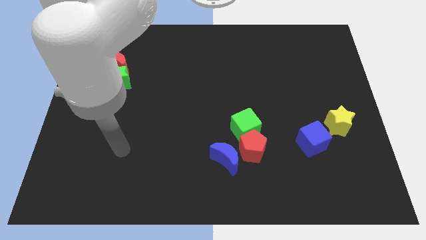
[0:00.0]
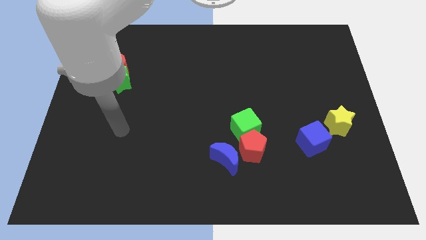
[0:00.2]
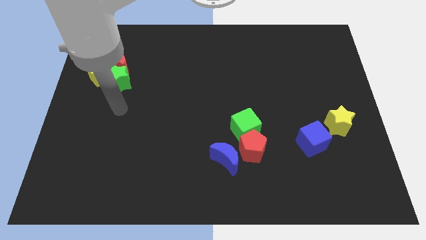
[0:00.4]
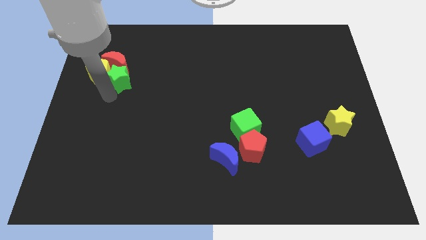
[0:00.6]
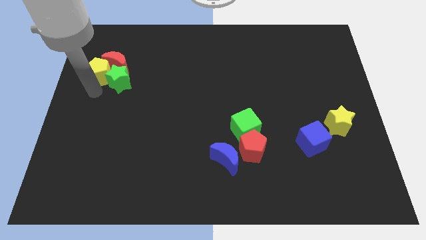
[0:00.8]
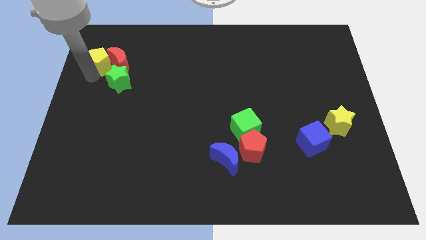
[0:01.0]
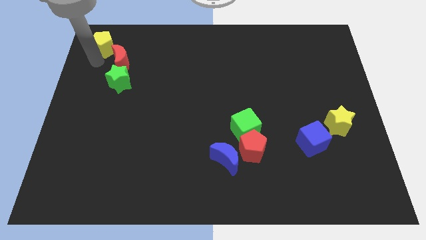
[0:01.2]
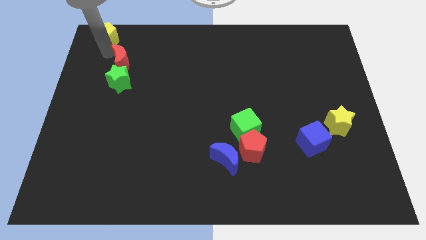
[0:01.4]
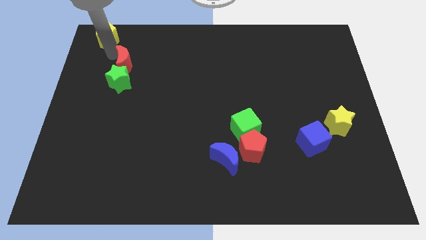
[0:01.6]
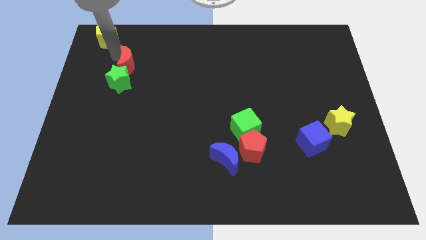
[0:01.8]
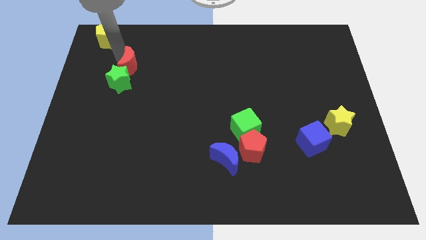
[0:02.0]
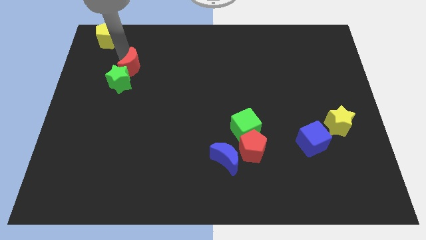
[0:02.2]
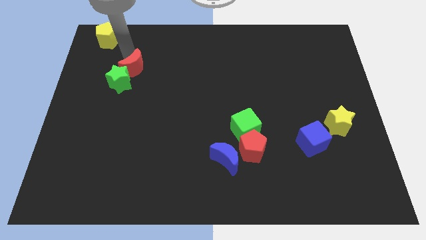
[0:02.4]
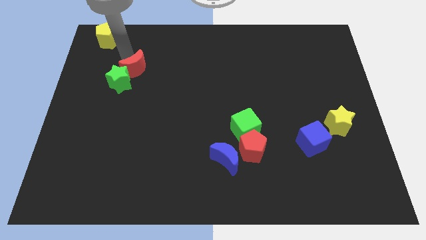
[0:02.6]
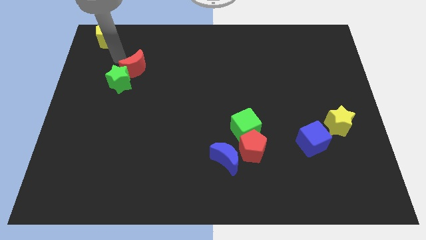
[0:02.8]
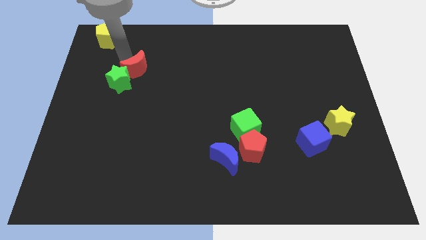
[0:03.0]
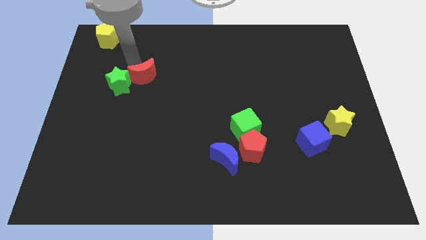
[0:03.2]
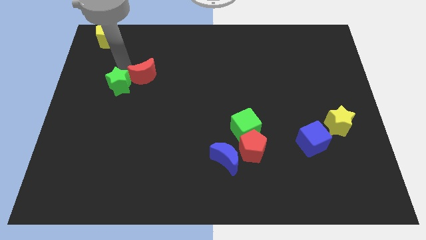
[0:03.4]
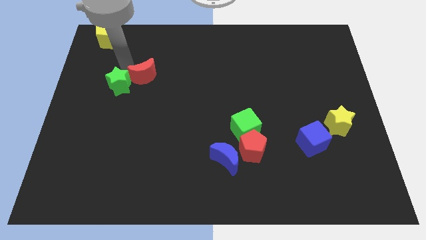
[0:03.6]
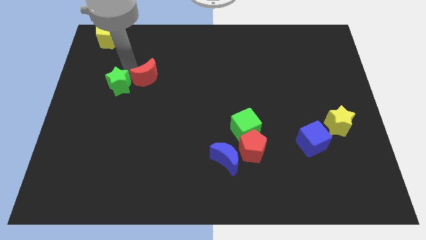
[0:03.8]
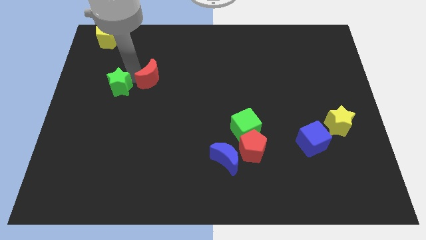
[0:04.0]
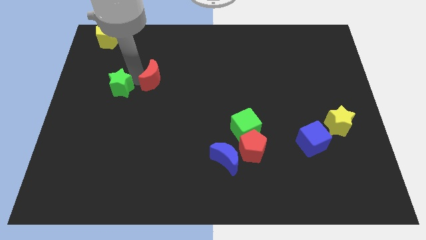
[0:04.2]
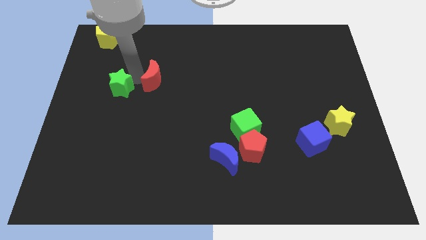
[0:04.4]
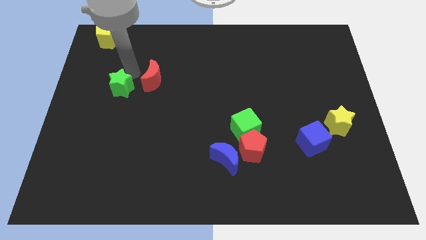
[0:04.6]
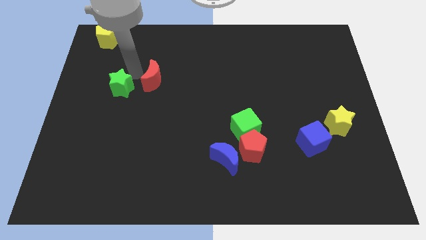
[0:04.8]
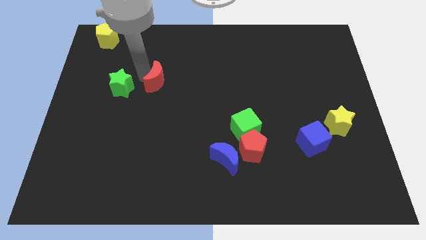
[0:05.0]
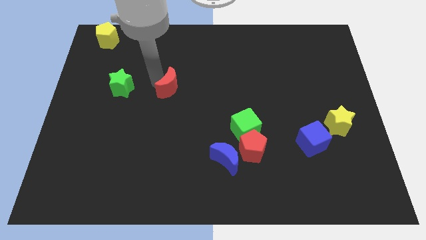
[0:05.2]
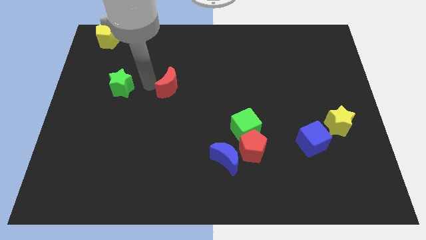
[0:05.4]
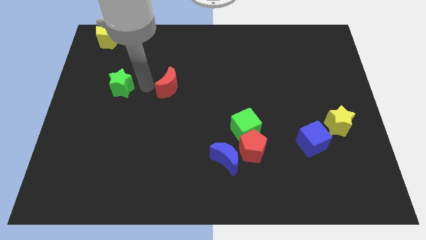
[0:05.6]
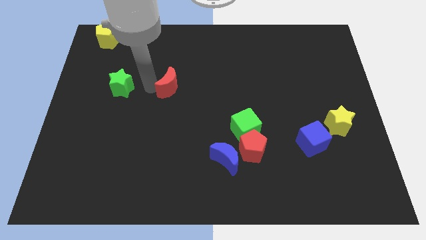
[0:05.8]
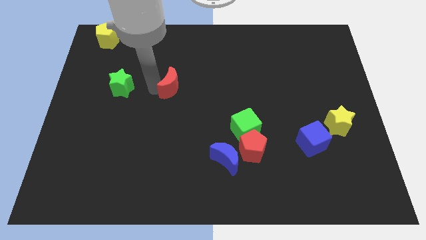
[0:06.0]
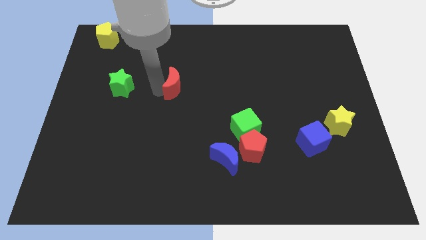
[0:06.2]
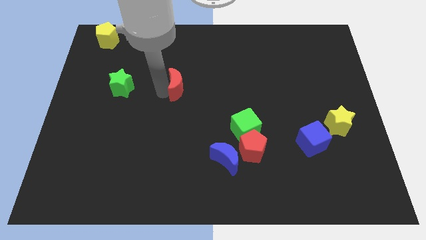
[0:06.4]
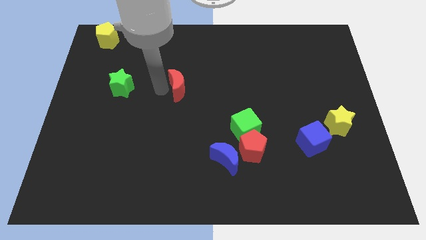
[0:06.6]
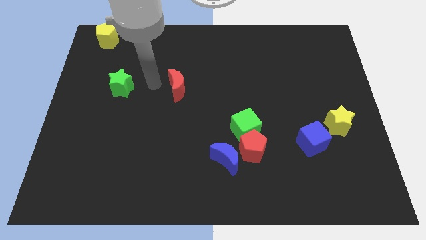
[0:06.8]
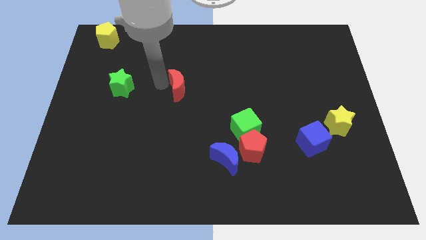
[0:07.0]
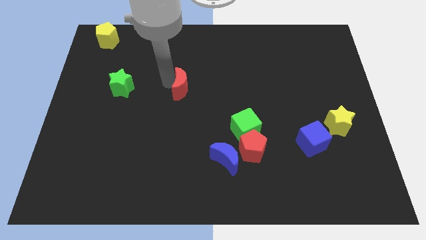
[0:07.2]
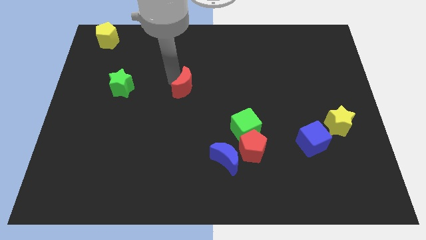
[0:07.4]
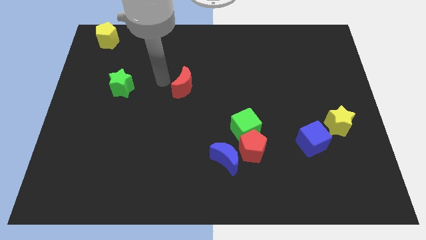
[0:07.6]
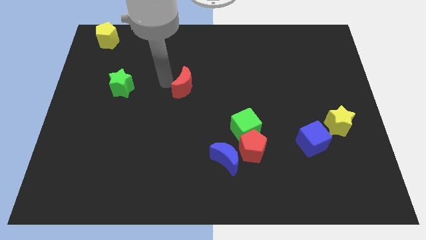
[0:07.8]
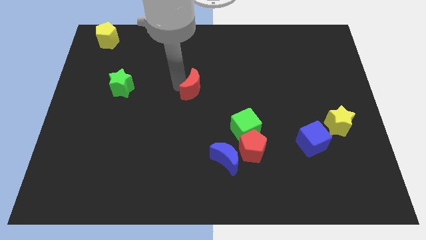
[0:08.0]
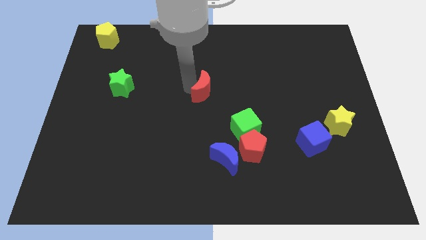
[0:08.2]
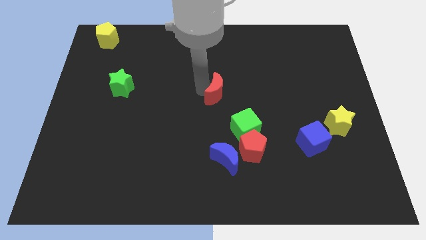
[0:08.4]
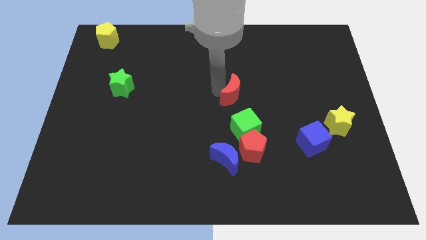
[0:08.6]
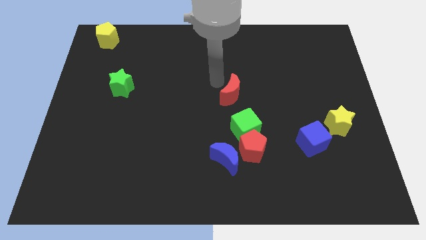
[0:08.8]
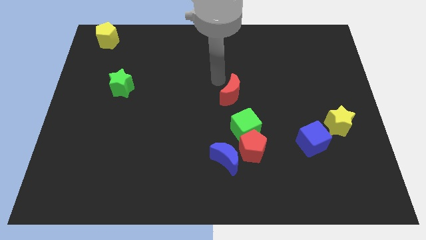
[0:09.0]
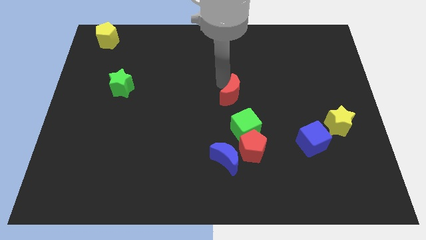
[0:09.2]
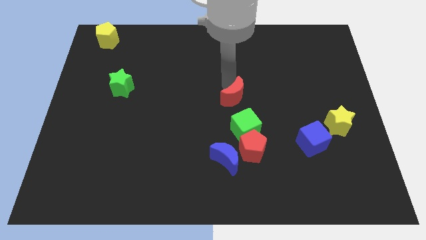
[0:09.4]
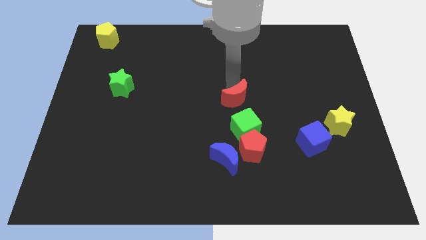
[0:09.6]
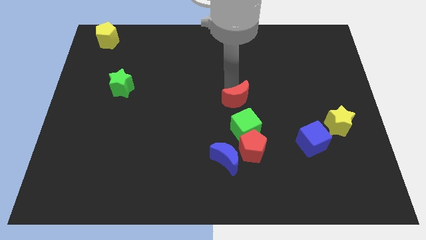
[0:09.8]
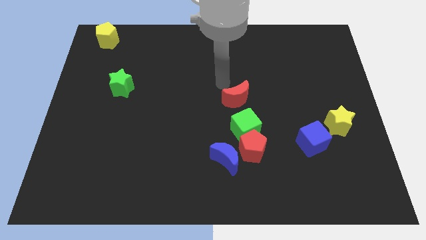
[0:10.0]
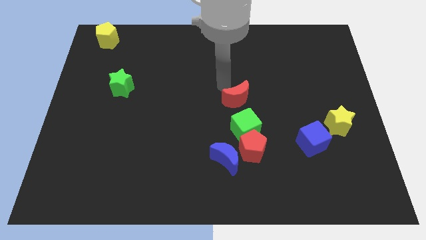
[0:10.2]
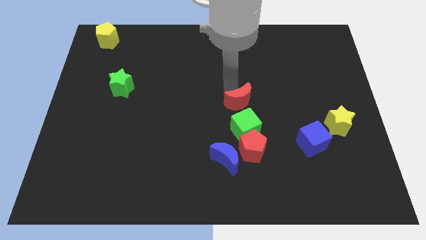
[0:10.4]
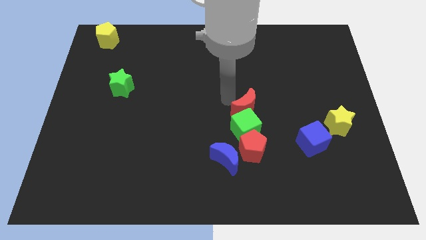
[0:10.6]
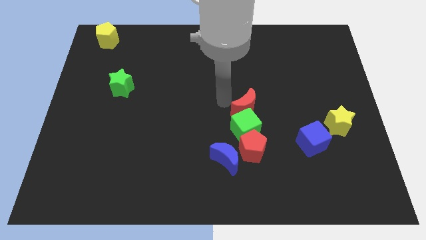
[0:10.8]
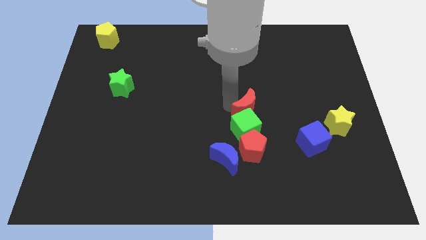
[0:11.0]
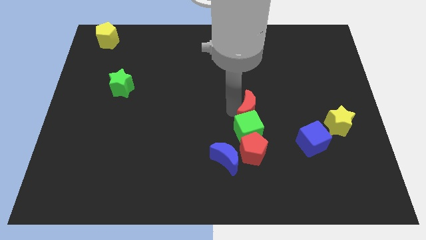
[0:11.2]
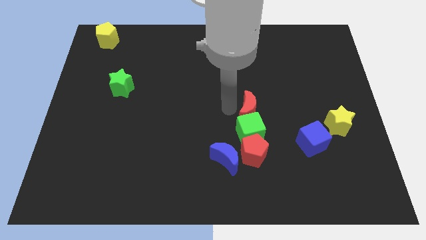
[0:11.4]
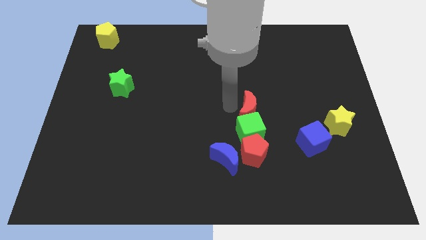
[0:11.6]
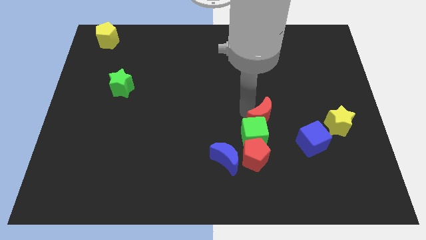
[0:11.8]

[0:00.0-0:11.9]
push the red moon to the top left side of the blue cube
